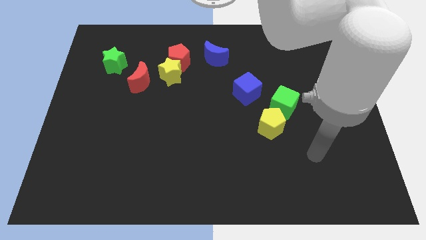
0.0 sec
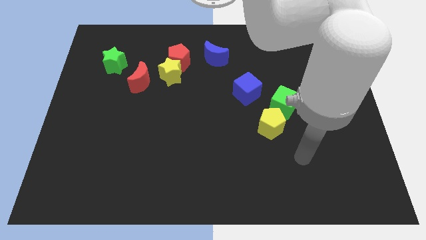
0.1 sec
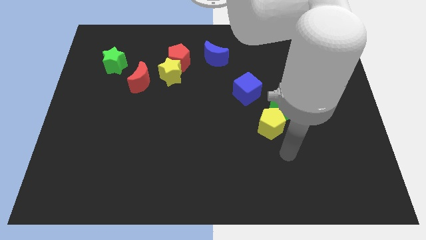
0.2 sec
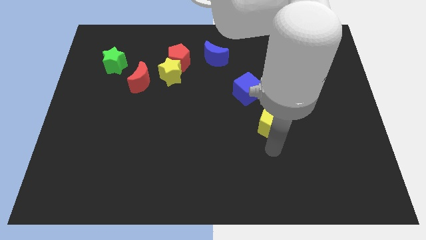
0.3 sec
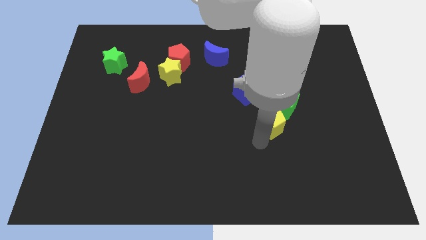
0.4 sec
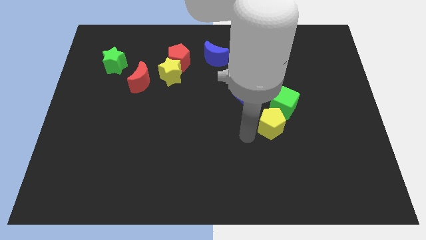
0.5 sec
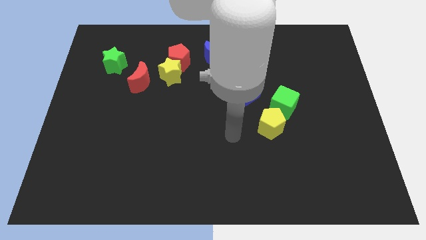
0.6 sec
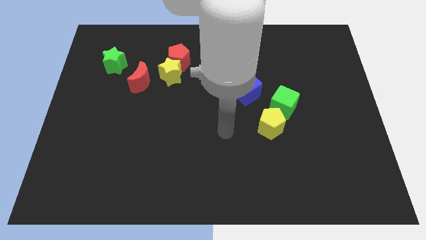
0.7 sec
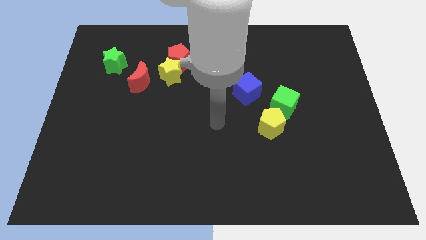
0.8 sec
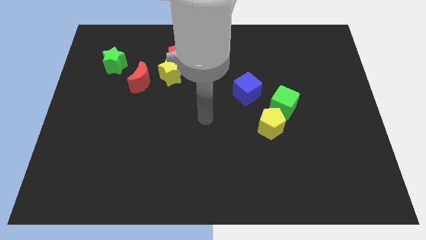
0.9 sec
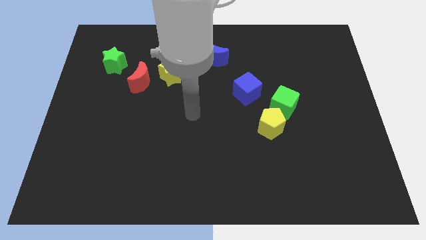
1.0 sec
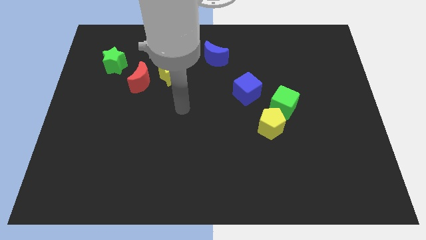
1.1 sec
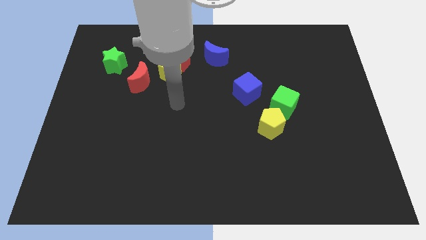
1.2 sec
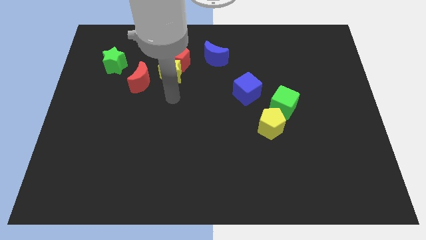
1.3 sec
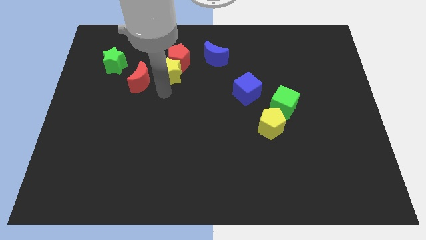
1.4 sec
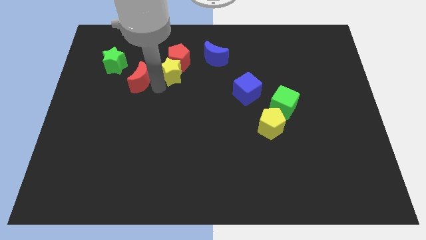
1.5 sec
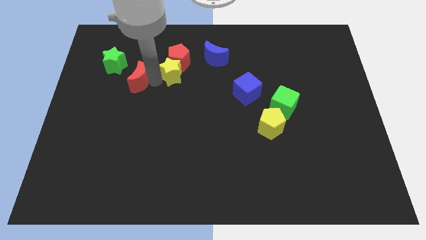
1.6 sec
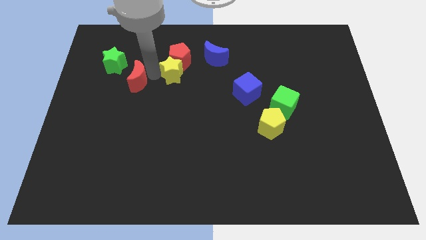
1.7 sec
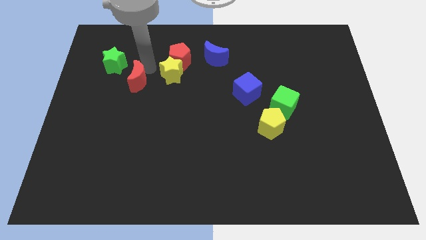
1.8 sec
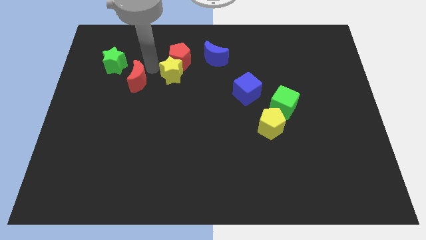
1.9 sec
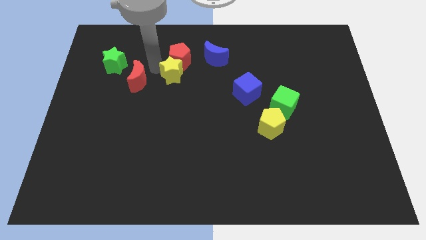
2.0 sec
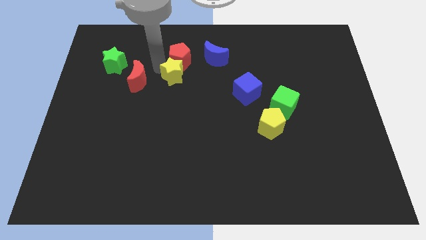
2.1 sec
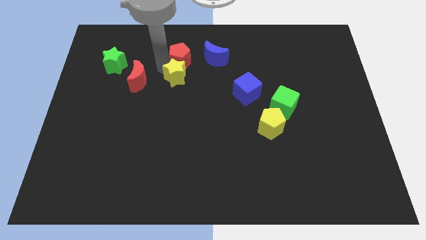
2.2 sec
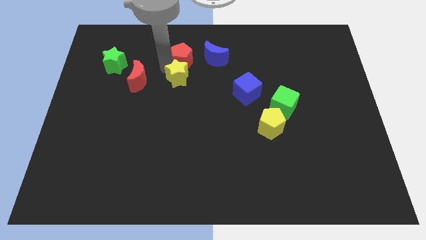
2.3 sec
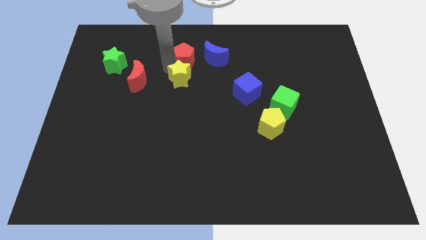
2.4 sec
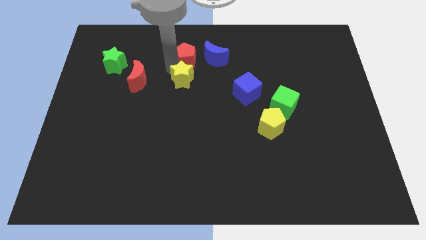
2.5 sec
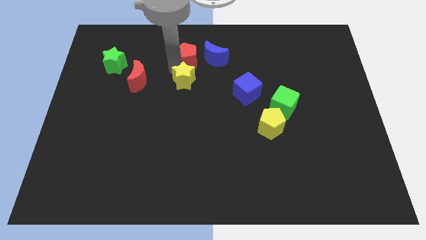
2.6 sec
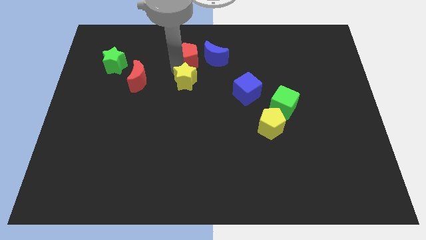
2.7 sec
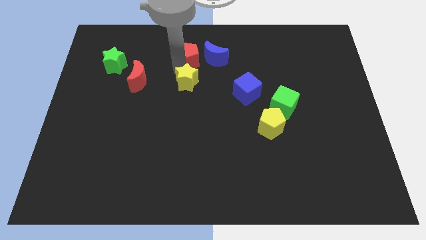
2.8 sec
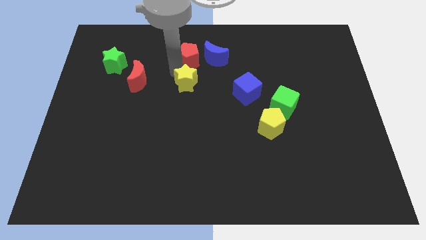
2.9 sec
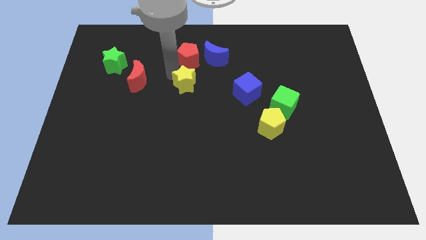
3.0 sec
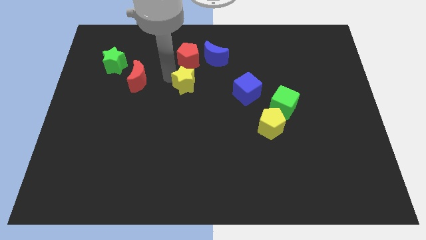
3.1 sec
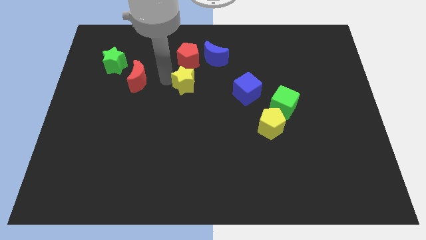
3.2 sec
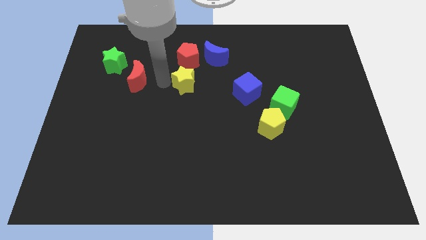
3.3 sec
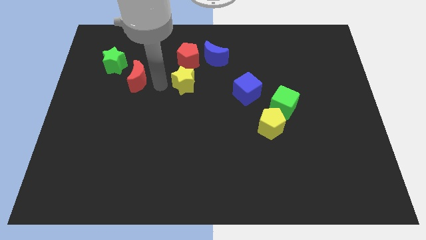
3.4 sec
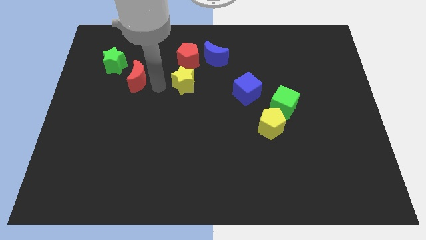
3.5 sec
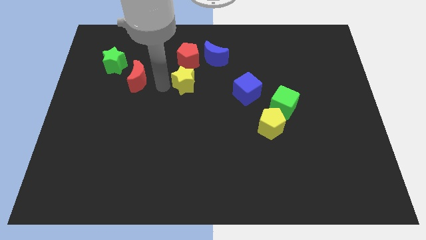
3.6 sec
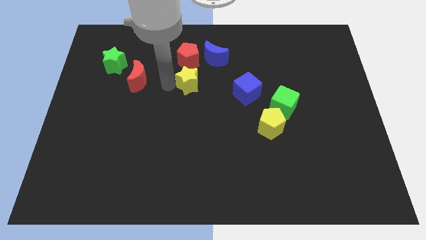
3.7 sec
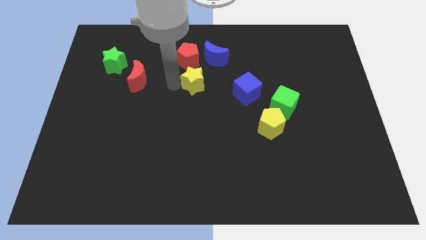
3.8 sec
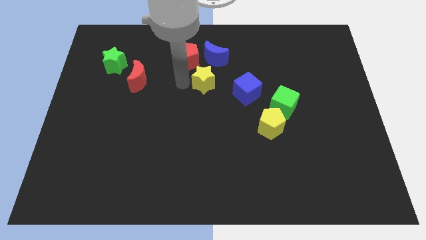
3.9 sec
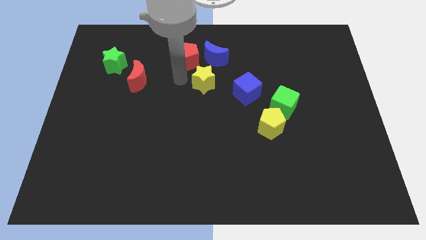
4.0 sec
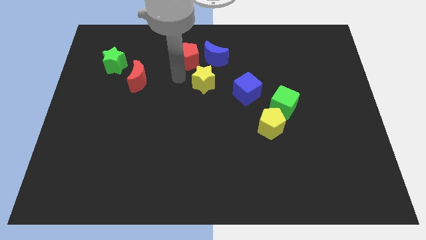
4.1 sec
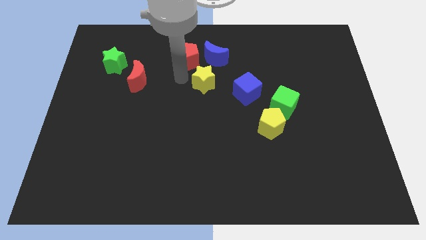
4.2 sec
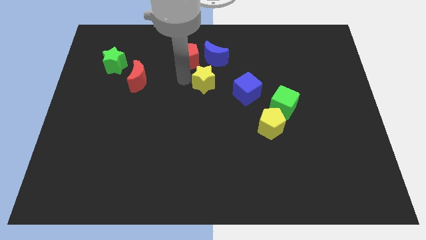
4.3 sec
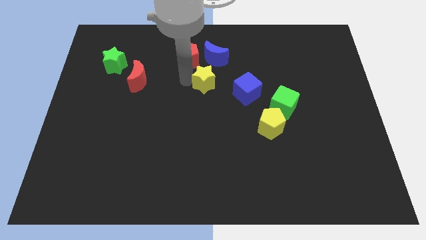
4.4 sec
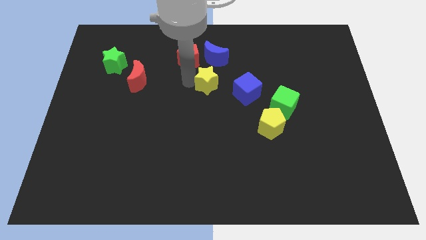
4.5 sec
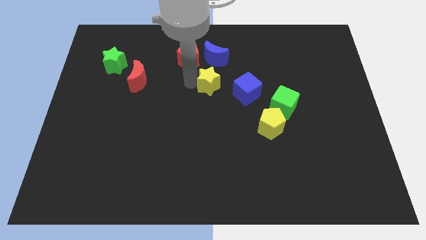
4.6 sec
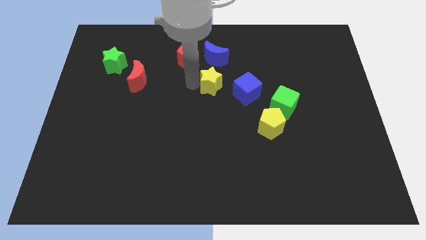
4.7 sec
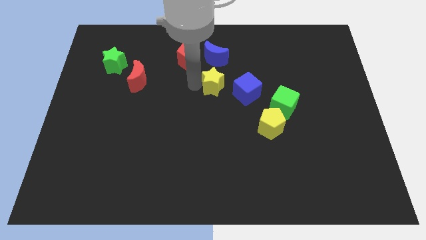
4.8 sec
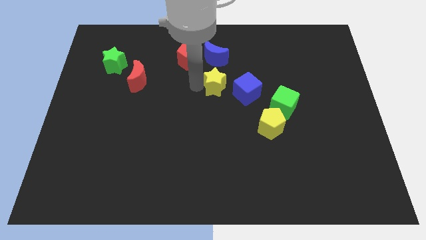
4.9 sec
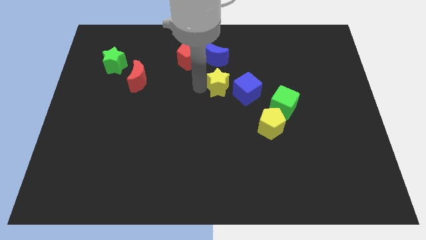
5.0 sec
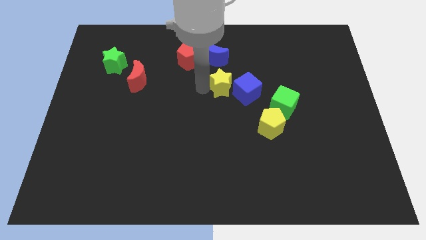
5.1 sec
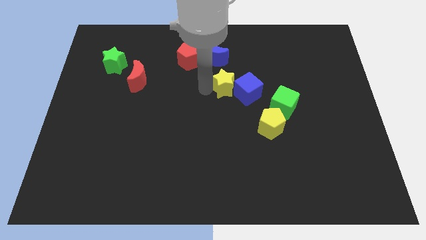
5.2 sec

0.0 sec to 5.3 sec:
slide the yellow star towards the blue cube

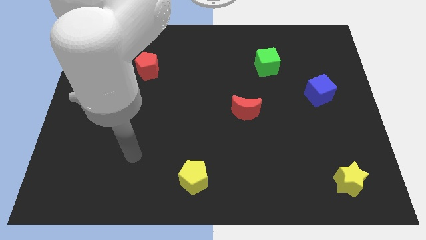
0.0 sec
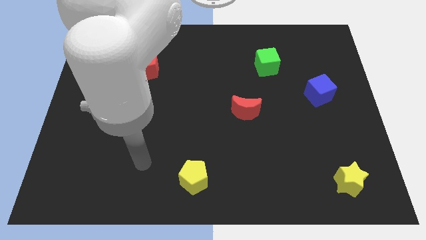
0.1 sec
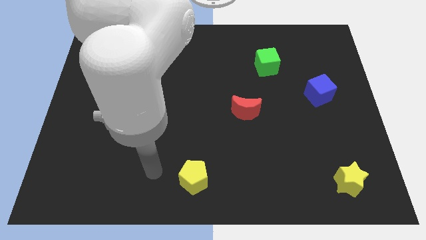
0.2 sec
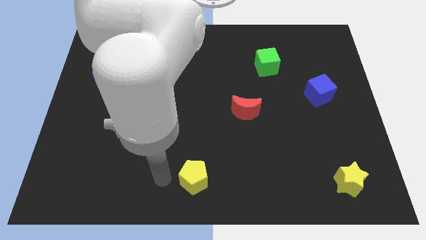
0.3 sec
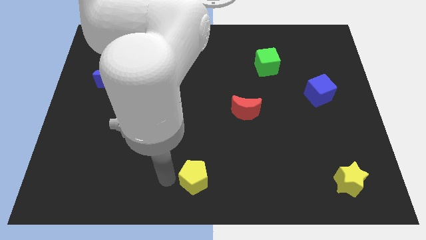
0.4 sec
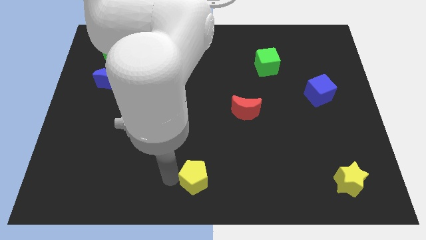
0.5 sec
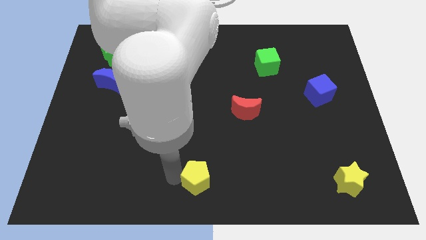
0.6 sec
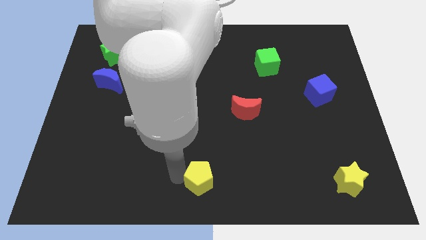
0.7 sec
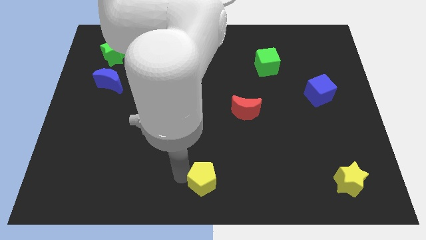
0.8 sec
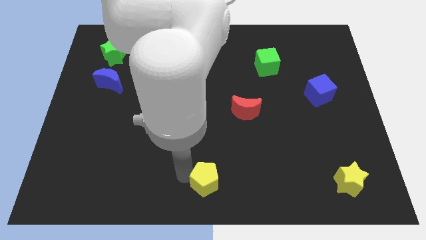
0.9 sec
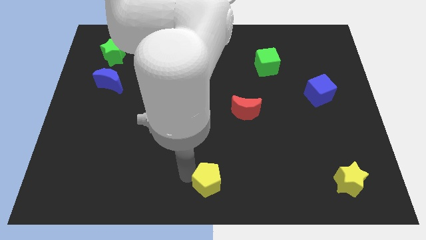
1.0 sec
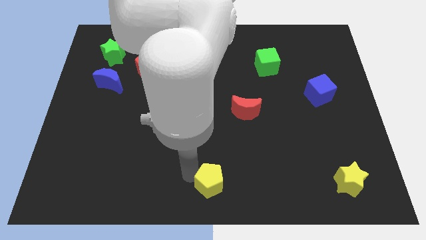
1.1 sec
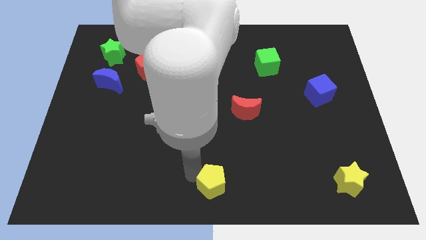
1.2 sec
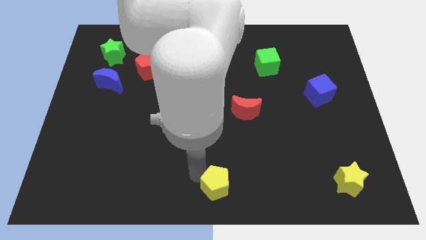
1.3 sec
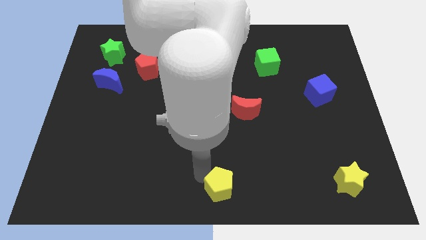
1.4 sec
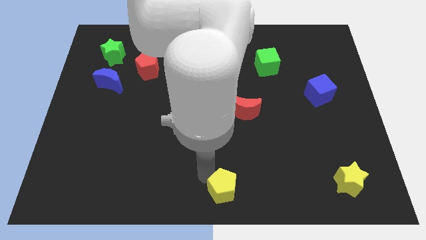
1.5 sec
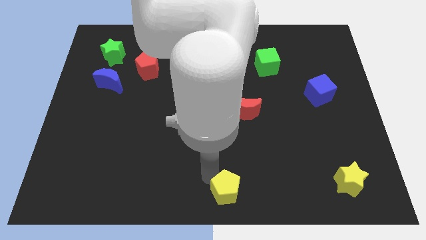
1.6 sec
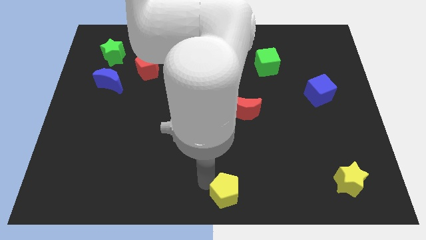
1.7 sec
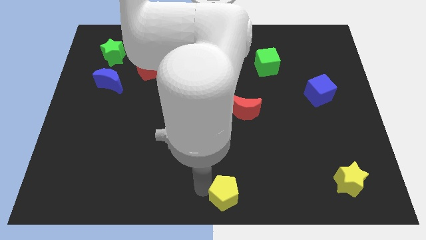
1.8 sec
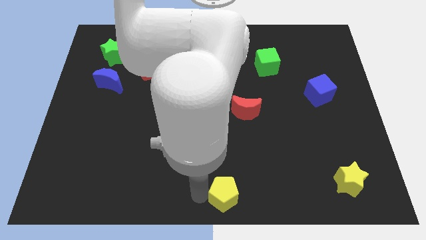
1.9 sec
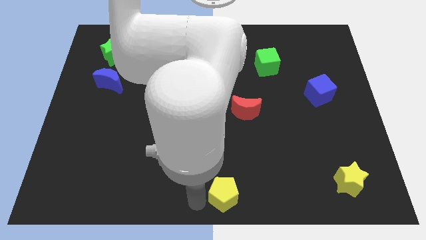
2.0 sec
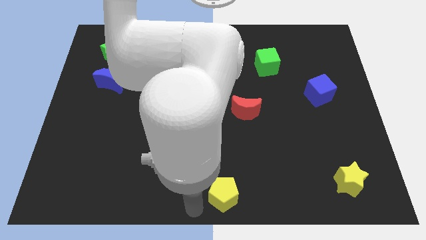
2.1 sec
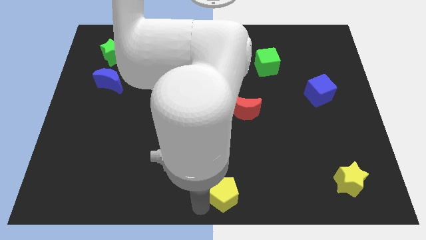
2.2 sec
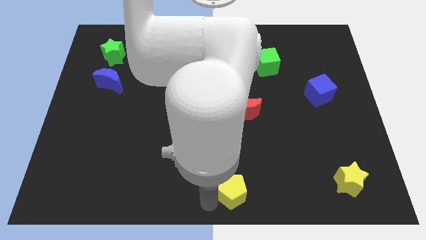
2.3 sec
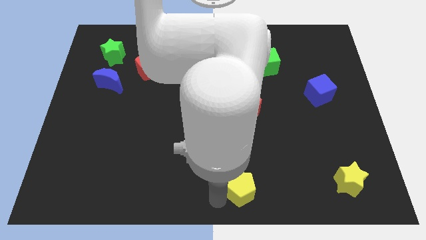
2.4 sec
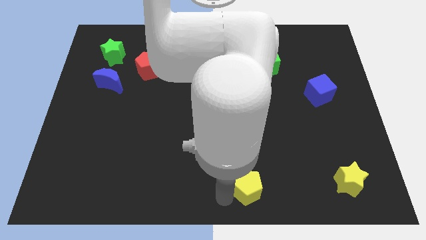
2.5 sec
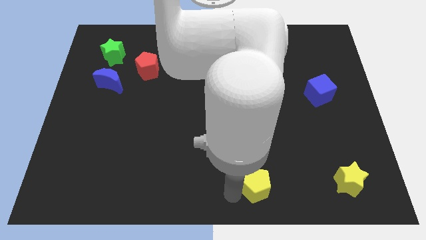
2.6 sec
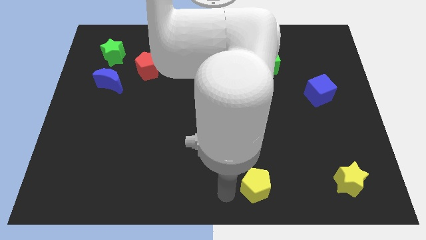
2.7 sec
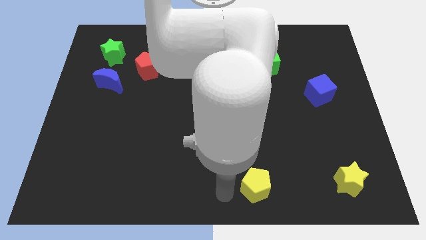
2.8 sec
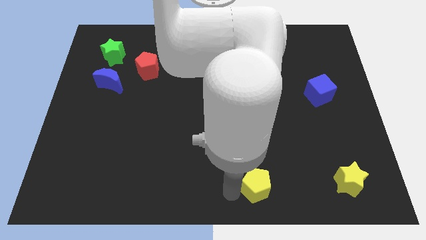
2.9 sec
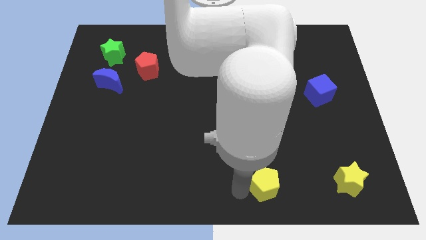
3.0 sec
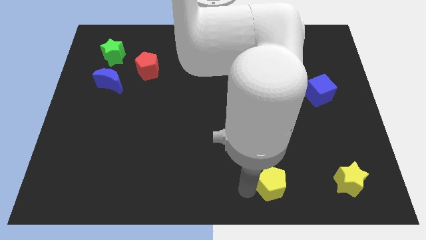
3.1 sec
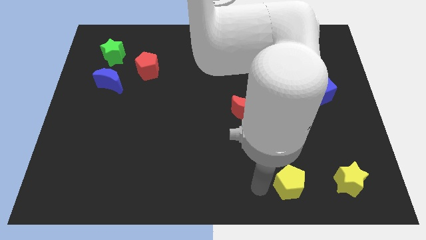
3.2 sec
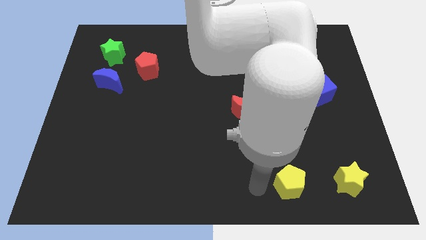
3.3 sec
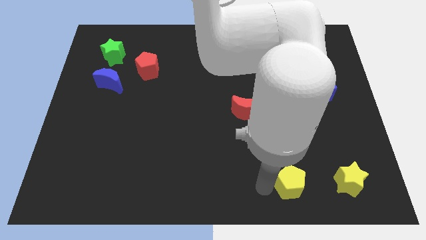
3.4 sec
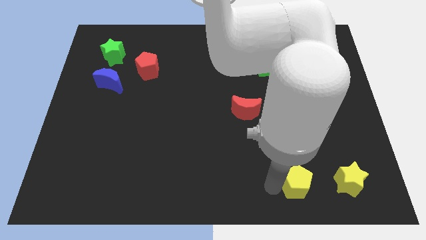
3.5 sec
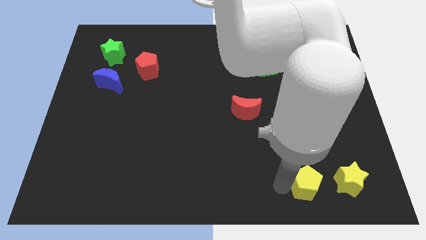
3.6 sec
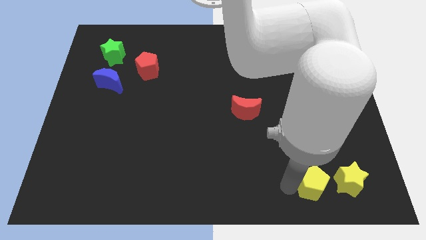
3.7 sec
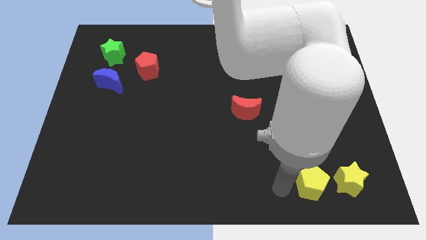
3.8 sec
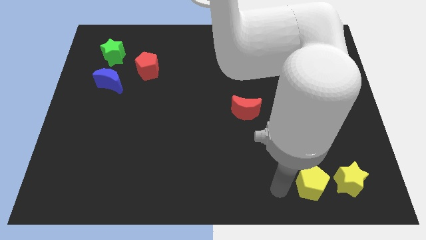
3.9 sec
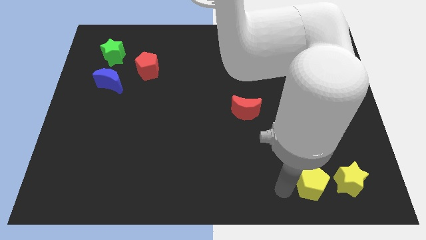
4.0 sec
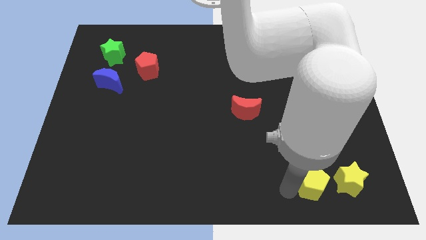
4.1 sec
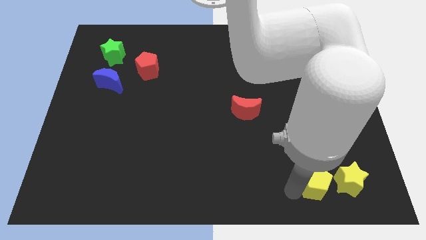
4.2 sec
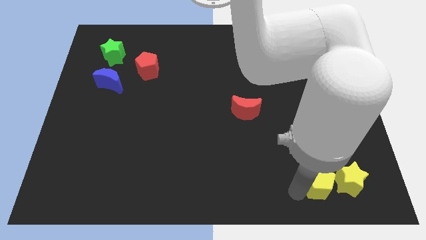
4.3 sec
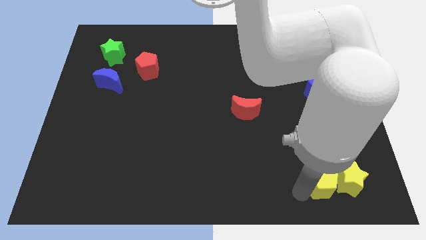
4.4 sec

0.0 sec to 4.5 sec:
push the yellow pentagon to the yellow star
